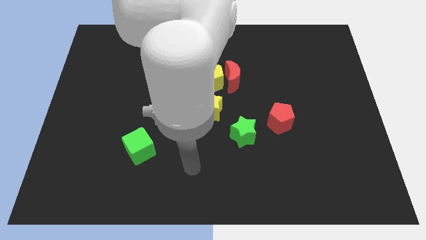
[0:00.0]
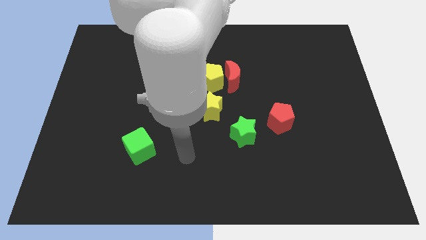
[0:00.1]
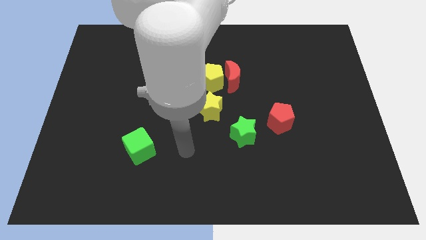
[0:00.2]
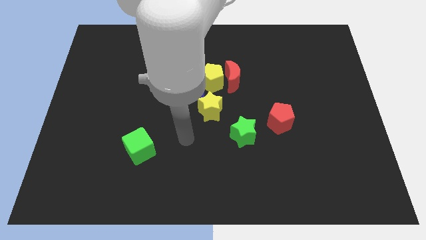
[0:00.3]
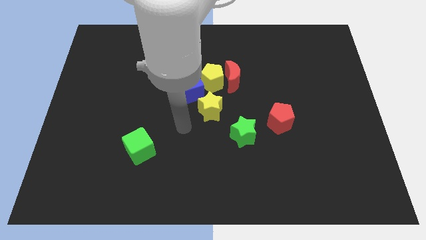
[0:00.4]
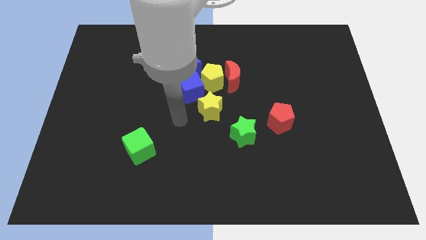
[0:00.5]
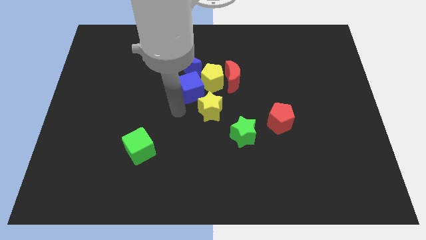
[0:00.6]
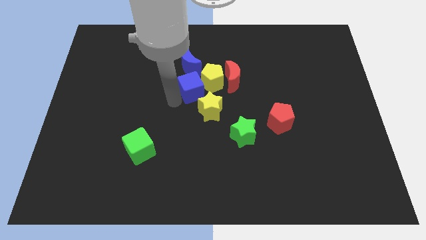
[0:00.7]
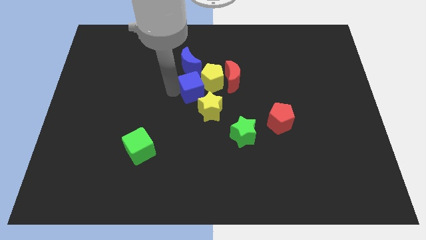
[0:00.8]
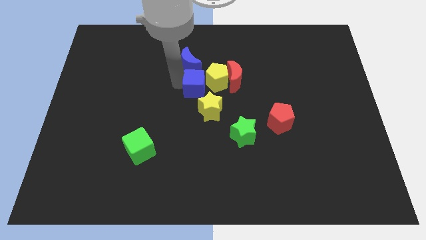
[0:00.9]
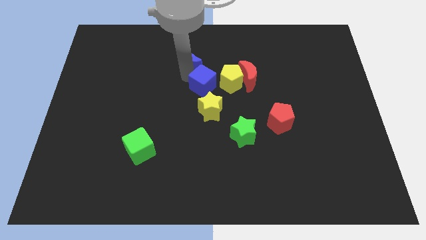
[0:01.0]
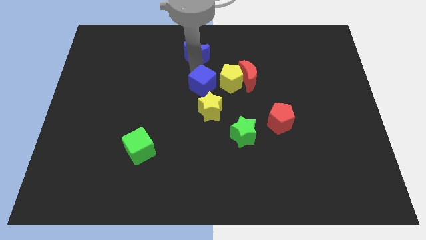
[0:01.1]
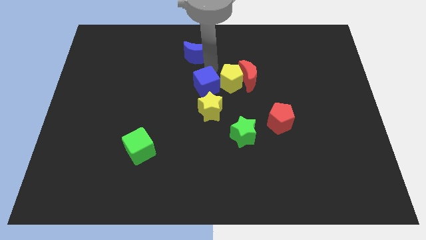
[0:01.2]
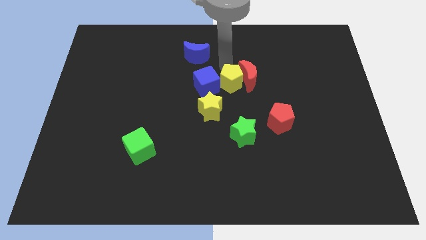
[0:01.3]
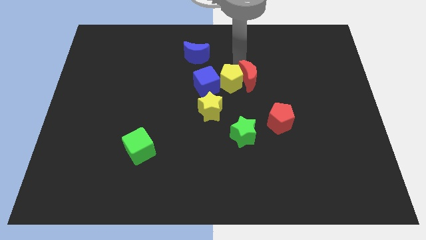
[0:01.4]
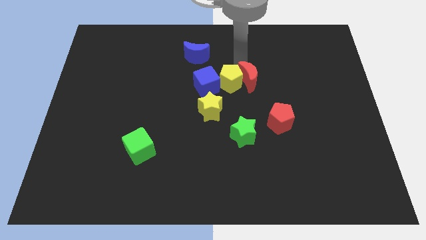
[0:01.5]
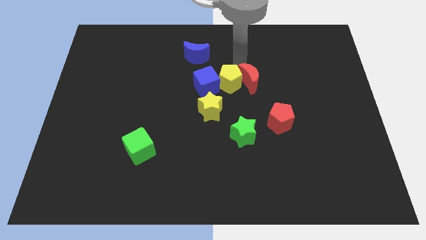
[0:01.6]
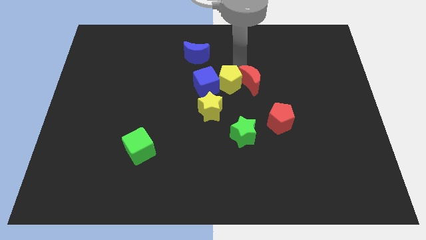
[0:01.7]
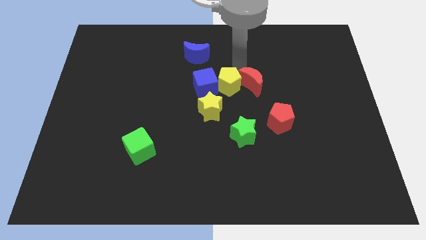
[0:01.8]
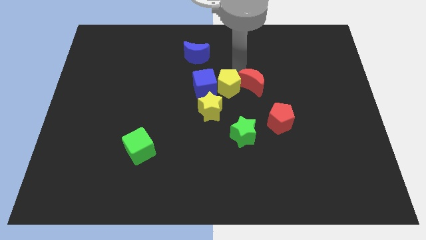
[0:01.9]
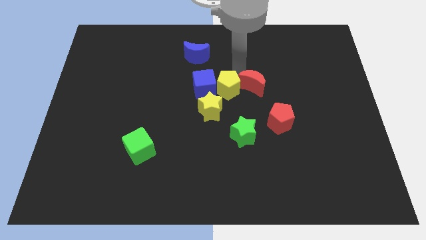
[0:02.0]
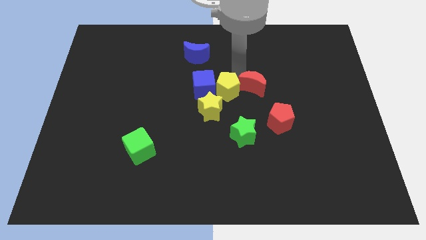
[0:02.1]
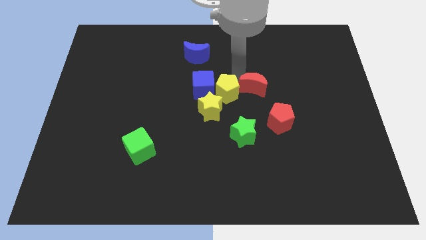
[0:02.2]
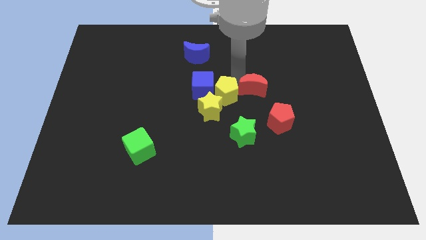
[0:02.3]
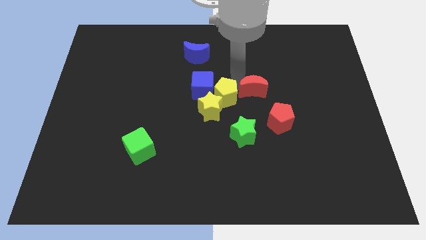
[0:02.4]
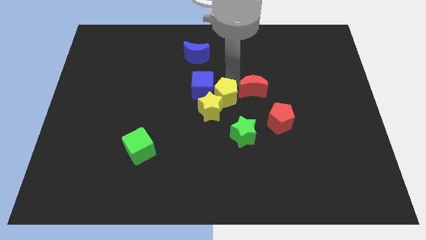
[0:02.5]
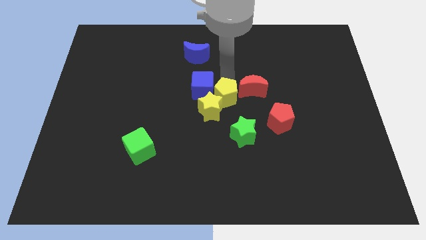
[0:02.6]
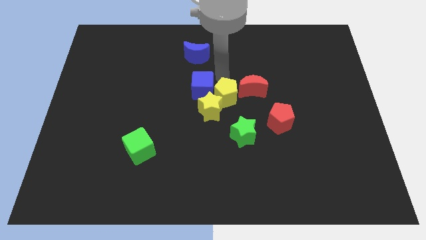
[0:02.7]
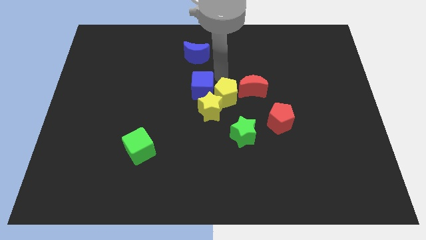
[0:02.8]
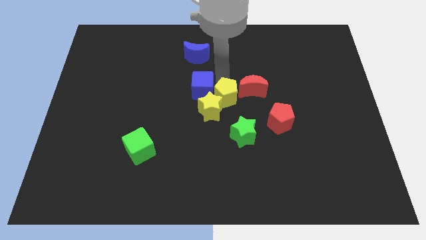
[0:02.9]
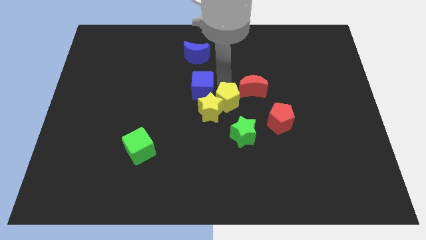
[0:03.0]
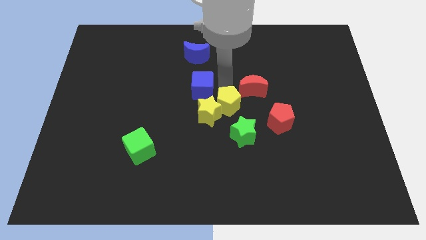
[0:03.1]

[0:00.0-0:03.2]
slightly move the yellow pentagon down

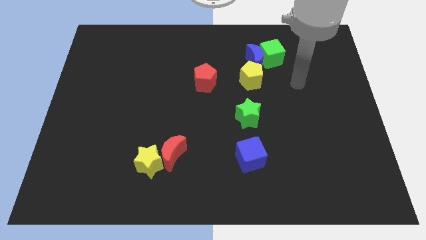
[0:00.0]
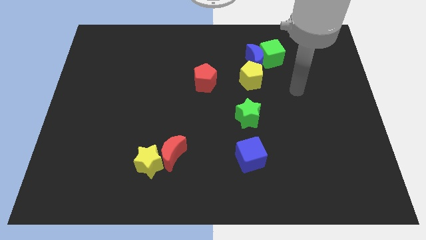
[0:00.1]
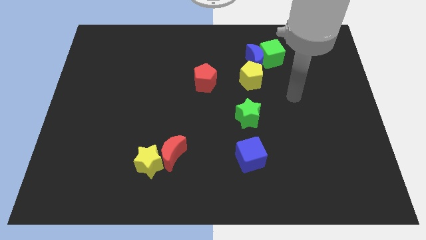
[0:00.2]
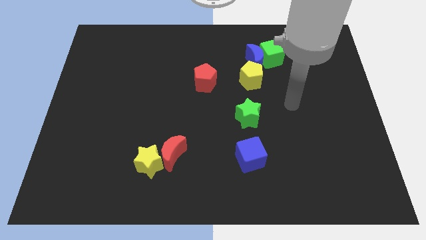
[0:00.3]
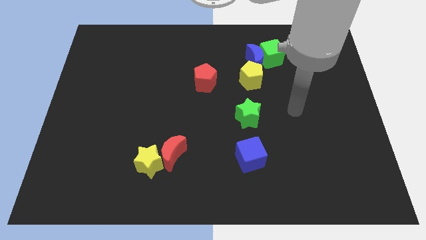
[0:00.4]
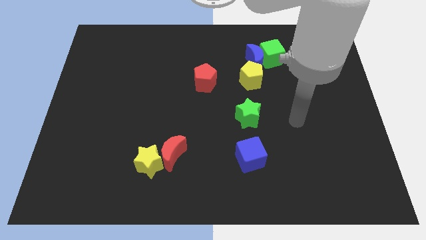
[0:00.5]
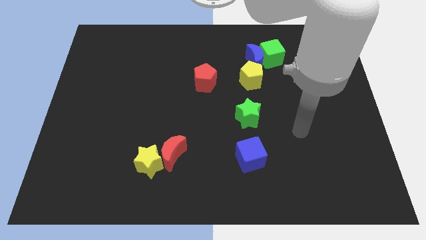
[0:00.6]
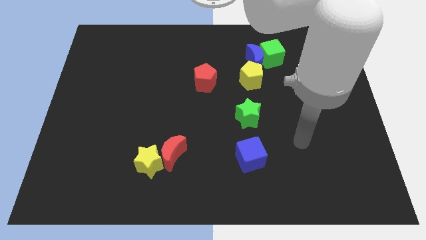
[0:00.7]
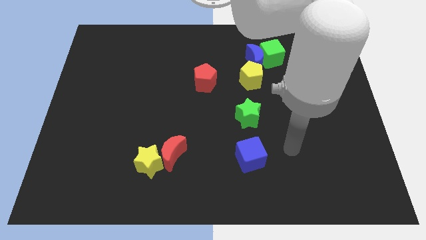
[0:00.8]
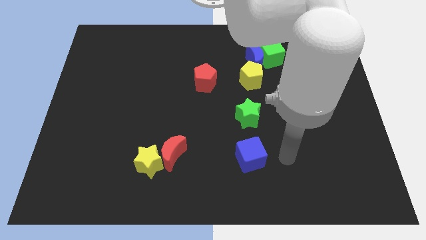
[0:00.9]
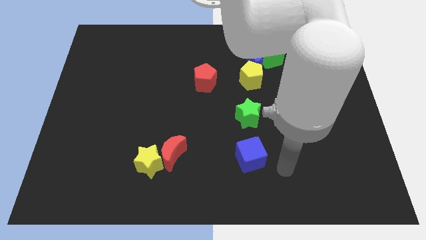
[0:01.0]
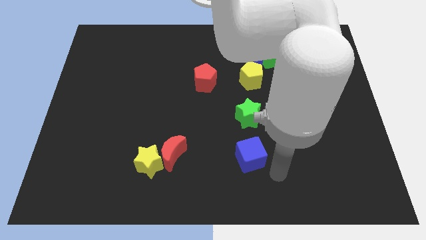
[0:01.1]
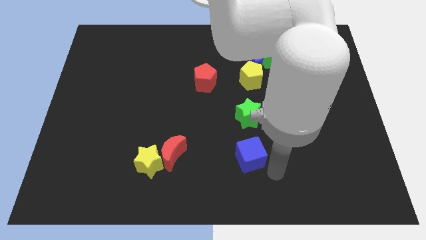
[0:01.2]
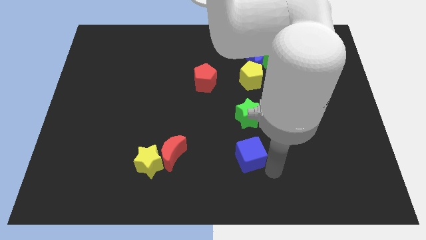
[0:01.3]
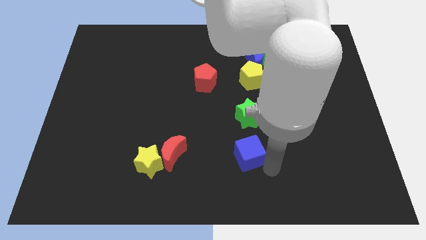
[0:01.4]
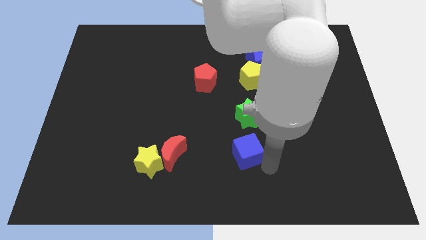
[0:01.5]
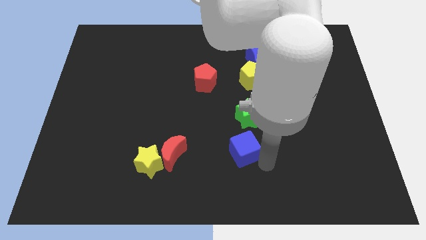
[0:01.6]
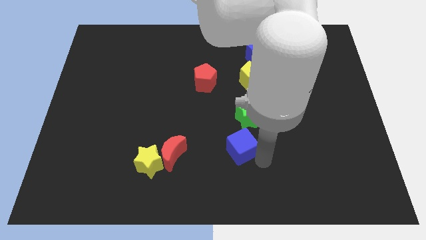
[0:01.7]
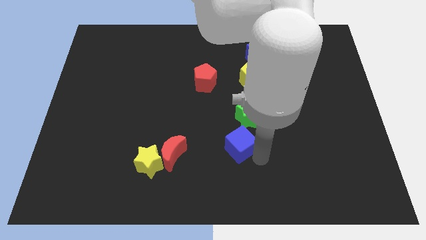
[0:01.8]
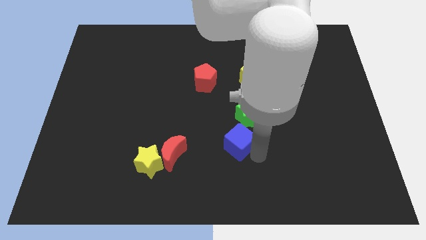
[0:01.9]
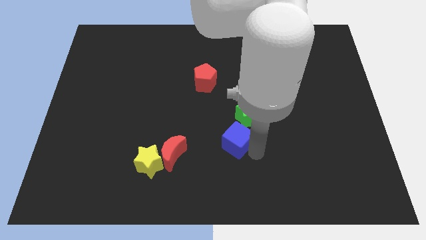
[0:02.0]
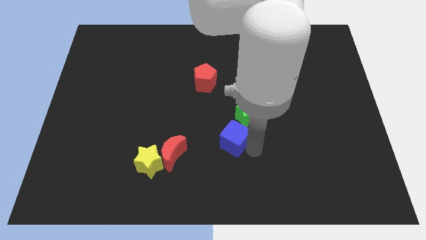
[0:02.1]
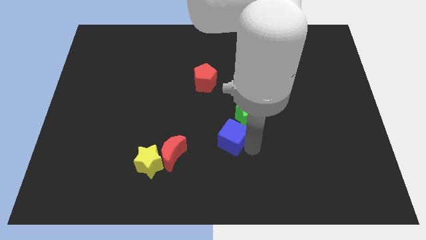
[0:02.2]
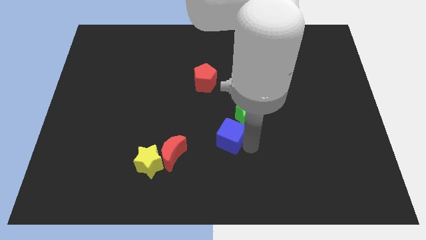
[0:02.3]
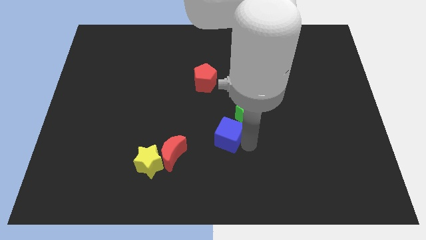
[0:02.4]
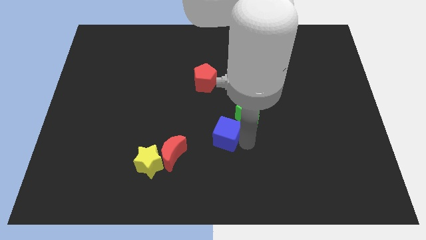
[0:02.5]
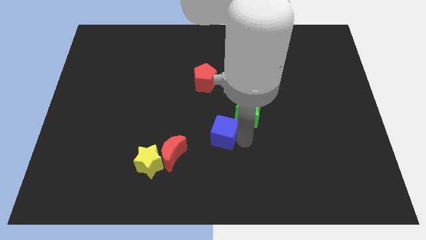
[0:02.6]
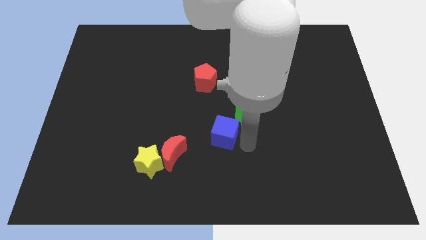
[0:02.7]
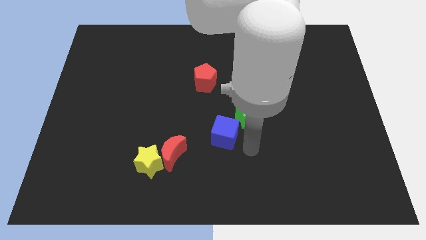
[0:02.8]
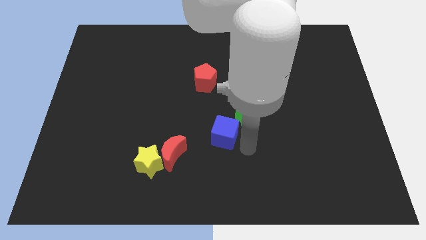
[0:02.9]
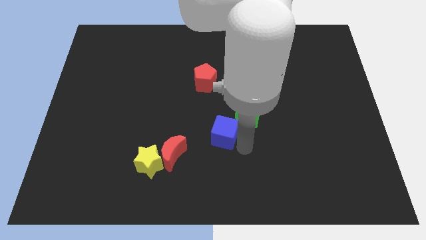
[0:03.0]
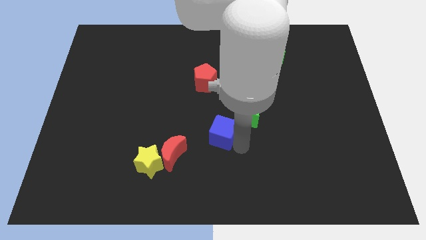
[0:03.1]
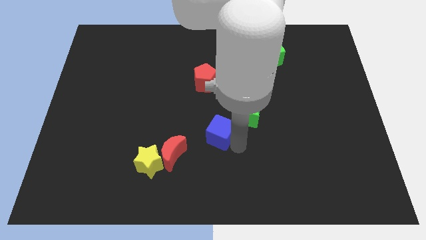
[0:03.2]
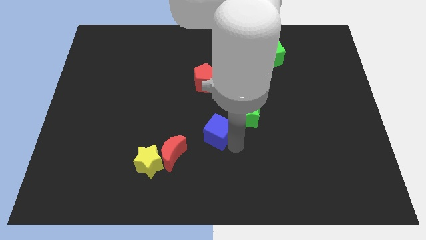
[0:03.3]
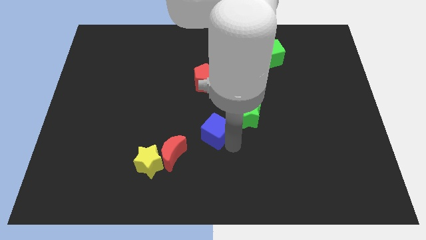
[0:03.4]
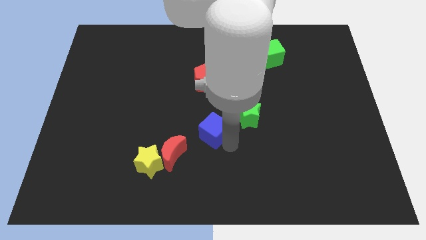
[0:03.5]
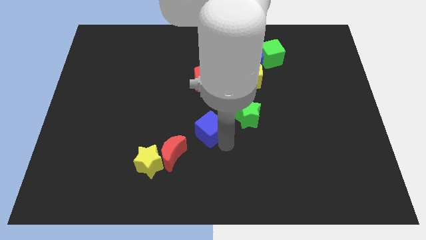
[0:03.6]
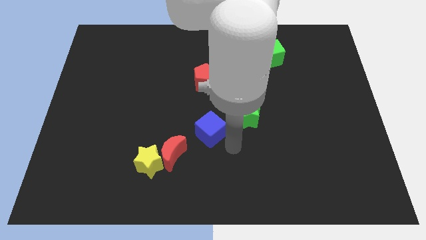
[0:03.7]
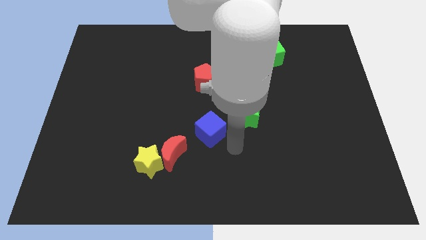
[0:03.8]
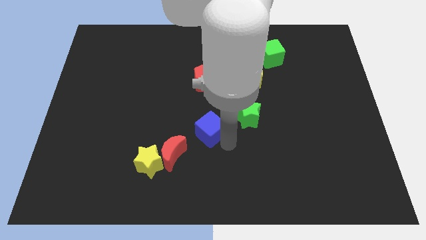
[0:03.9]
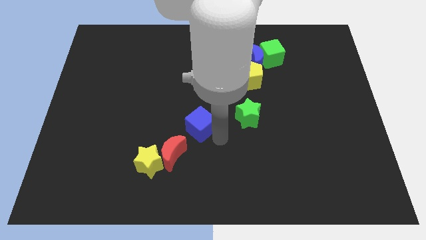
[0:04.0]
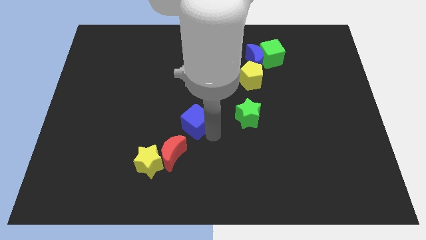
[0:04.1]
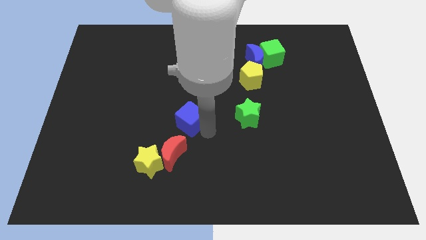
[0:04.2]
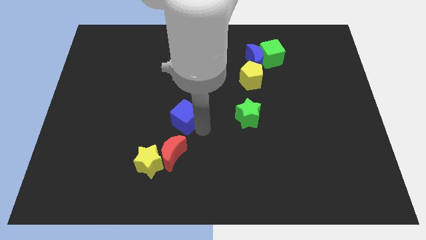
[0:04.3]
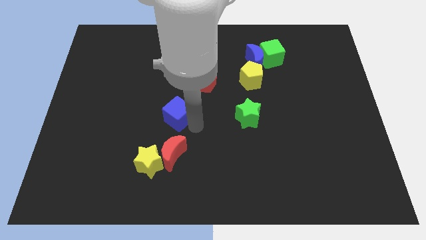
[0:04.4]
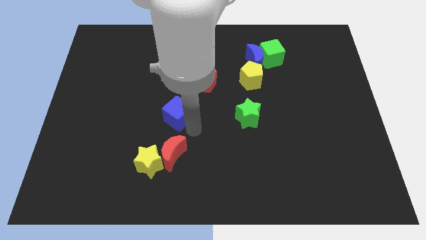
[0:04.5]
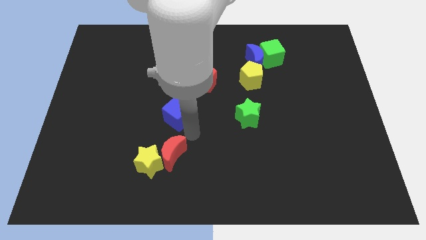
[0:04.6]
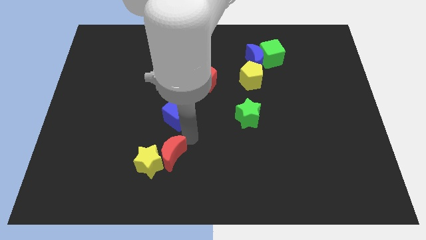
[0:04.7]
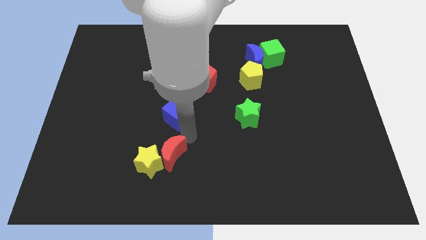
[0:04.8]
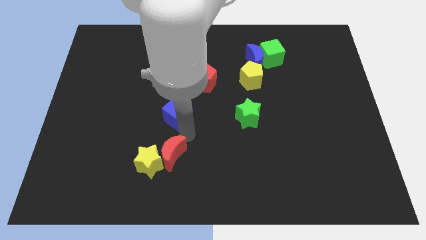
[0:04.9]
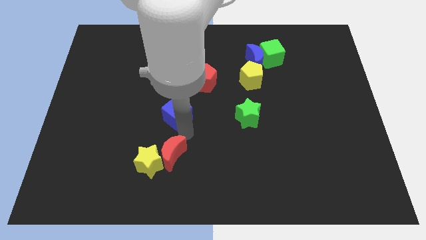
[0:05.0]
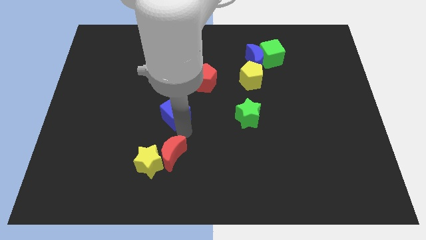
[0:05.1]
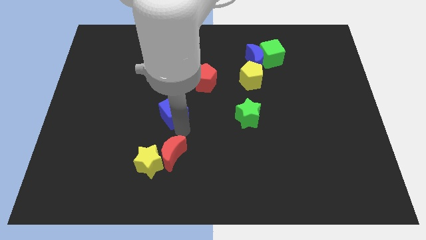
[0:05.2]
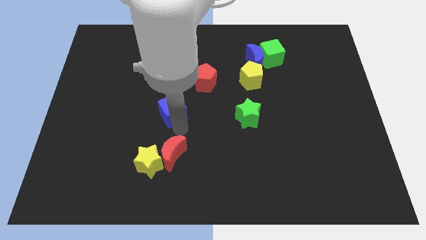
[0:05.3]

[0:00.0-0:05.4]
slide the blue cube up and to the left

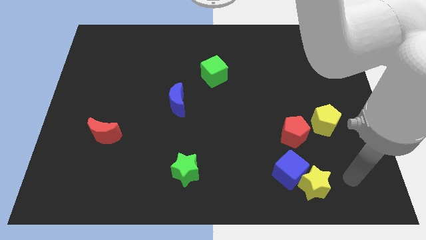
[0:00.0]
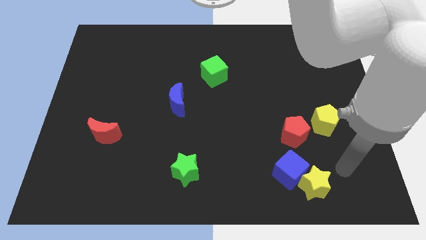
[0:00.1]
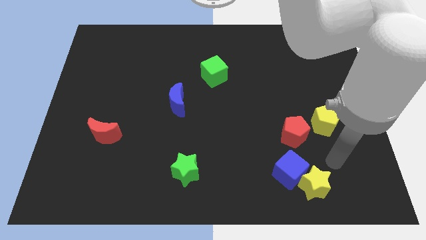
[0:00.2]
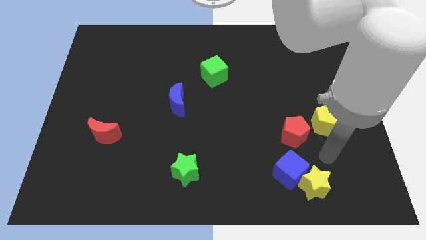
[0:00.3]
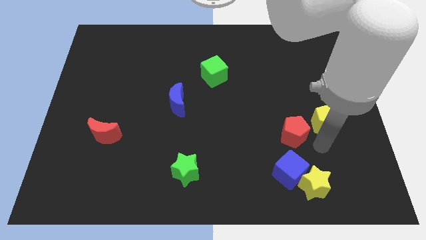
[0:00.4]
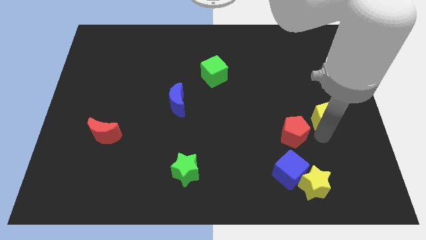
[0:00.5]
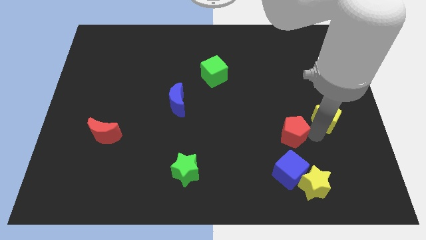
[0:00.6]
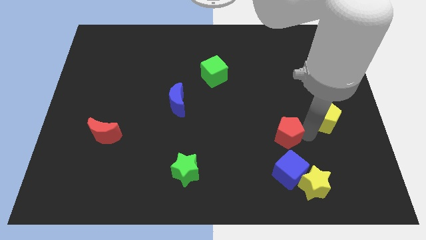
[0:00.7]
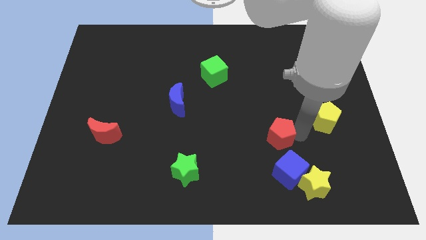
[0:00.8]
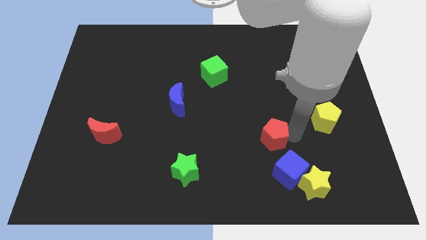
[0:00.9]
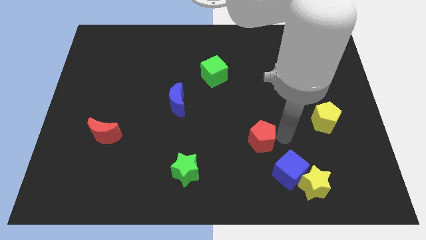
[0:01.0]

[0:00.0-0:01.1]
push the red pentagon somewhat to the left
